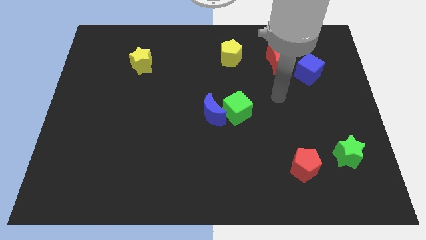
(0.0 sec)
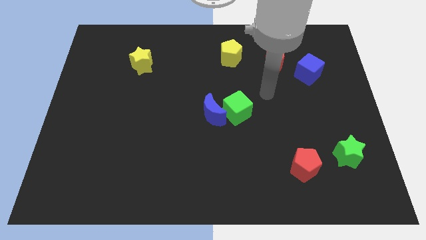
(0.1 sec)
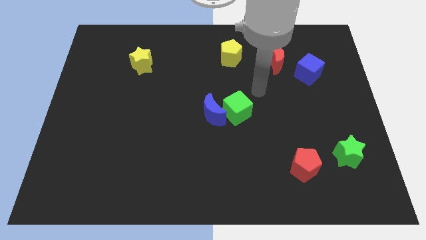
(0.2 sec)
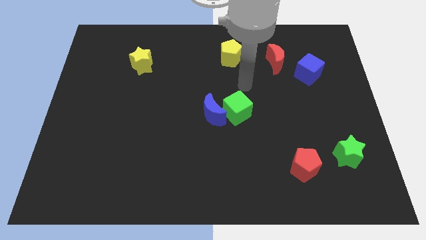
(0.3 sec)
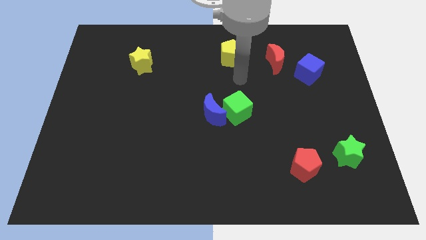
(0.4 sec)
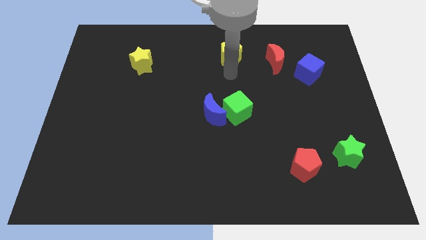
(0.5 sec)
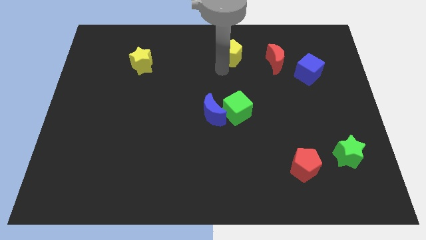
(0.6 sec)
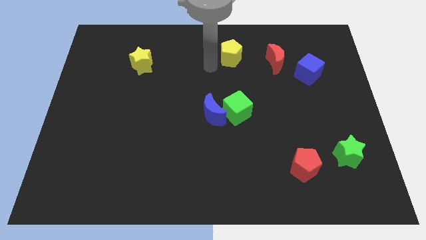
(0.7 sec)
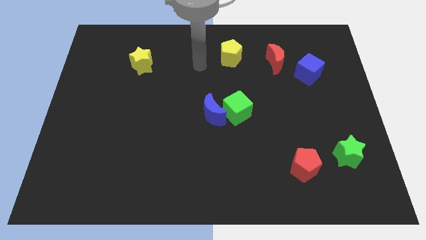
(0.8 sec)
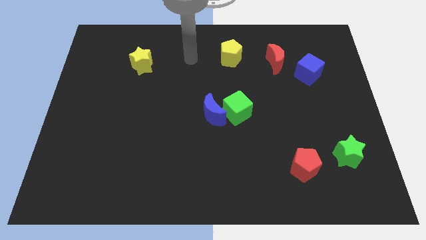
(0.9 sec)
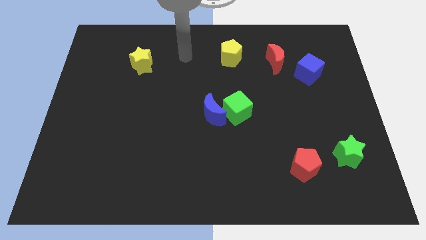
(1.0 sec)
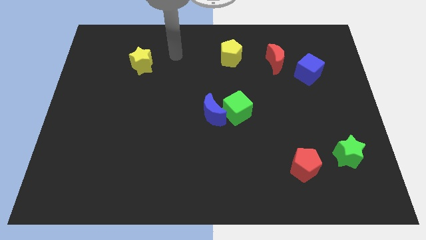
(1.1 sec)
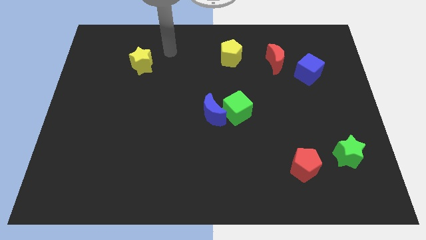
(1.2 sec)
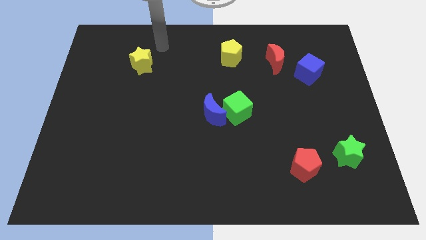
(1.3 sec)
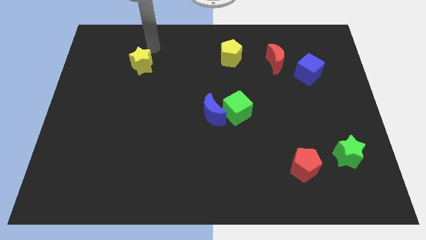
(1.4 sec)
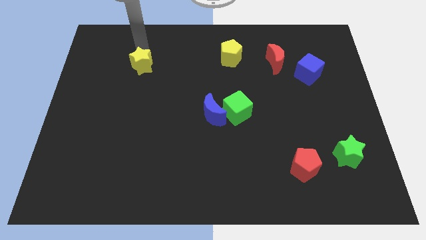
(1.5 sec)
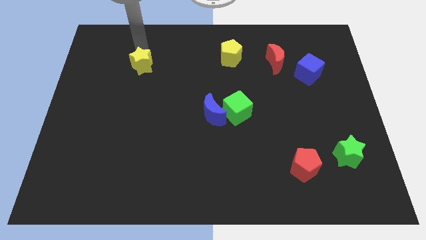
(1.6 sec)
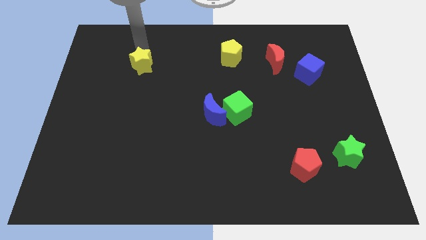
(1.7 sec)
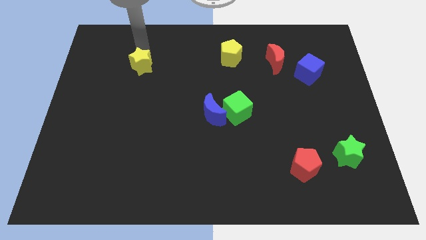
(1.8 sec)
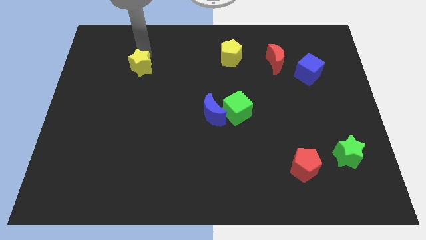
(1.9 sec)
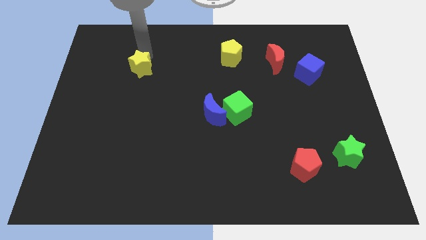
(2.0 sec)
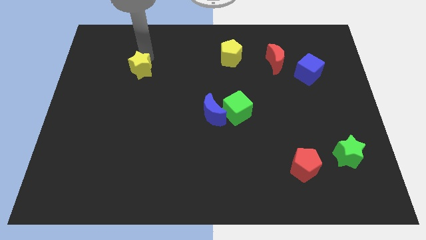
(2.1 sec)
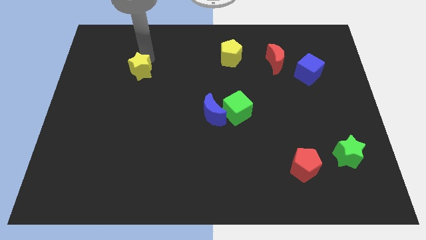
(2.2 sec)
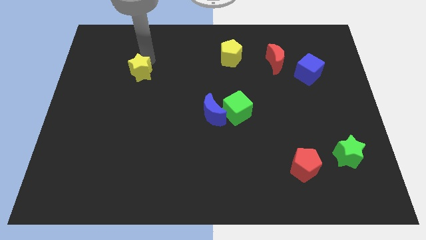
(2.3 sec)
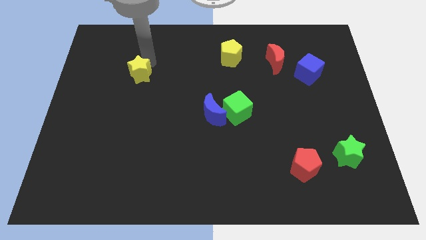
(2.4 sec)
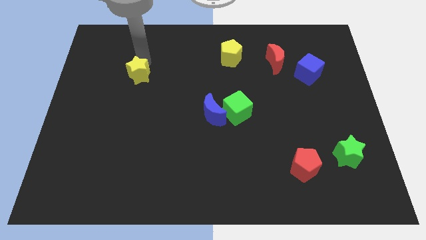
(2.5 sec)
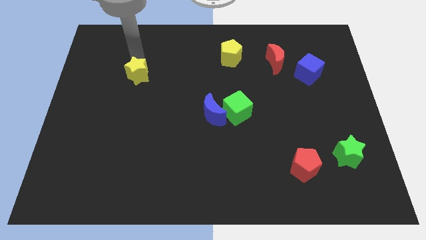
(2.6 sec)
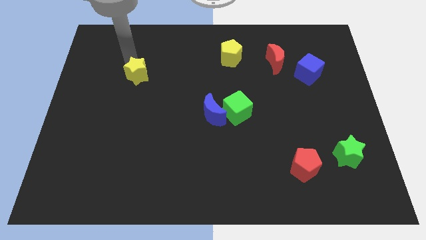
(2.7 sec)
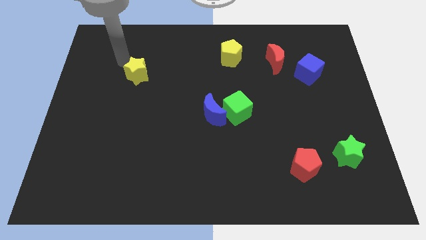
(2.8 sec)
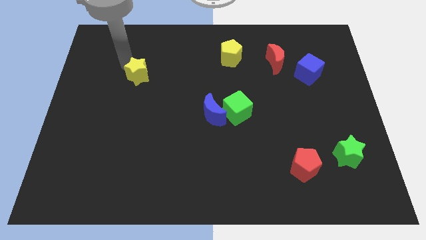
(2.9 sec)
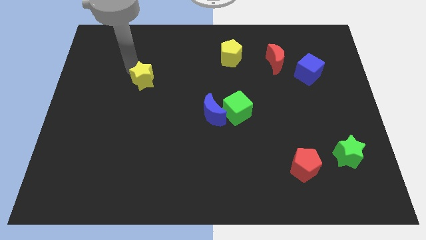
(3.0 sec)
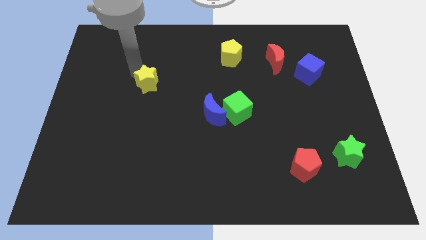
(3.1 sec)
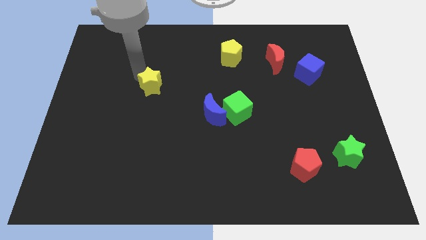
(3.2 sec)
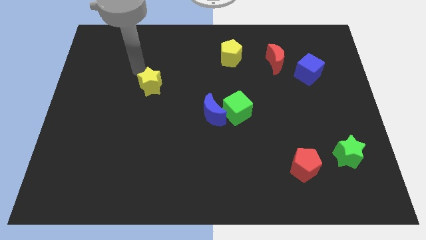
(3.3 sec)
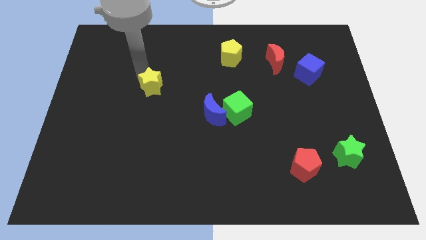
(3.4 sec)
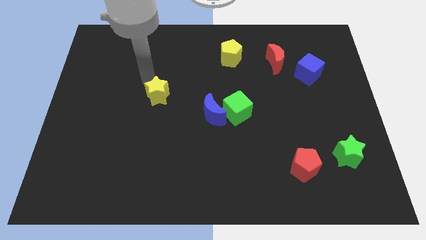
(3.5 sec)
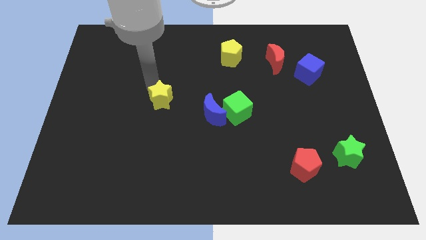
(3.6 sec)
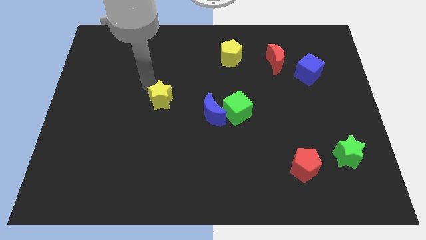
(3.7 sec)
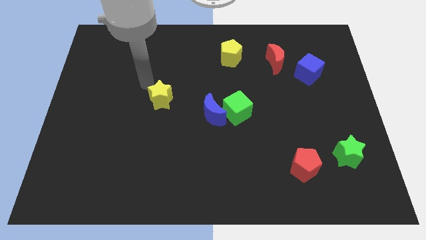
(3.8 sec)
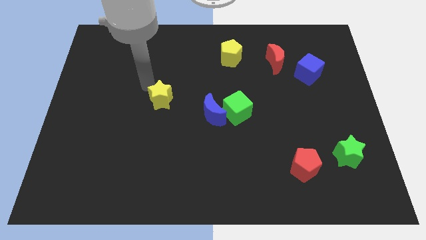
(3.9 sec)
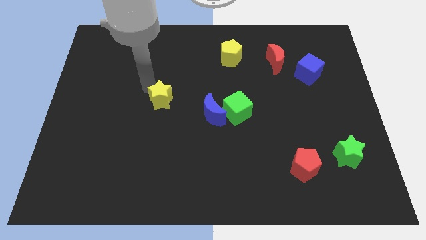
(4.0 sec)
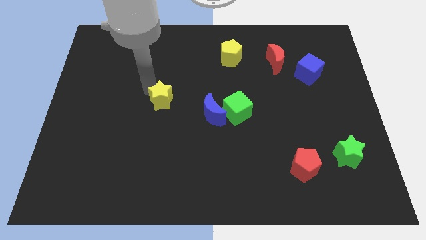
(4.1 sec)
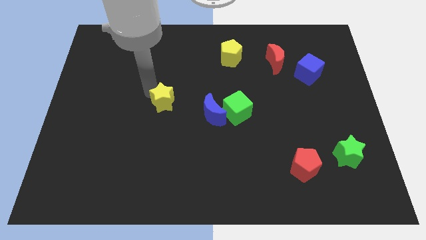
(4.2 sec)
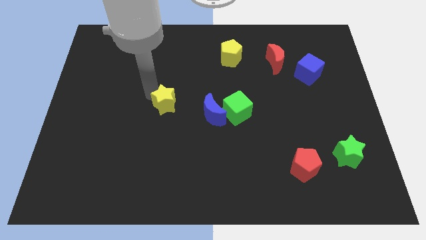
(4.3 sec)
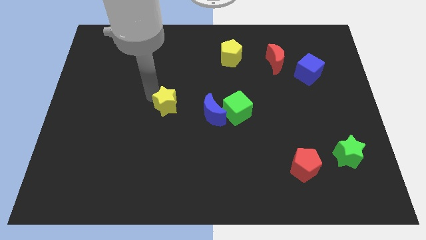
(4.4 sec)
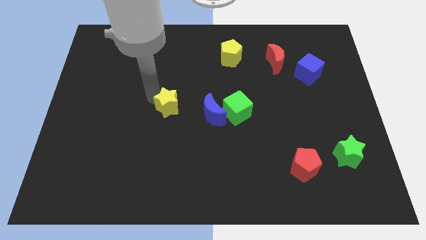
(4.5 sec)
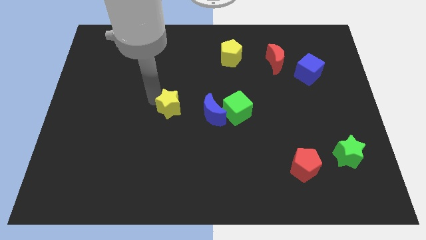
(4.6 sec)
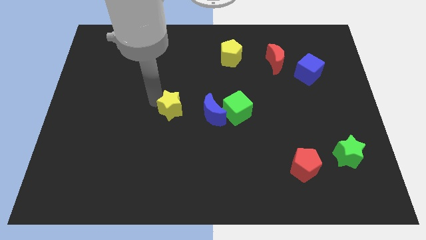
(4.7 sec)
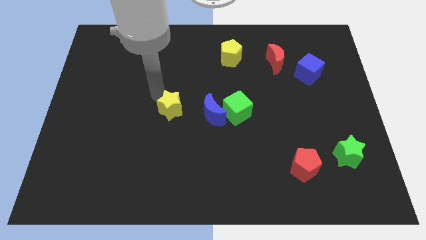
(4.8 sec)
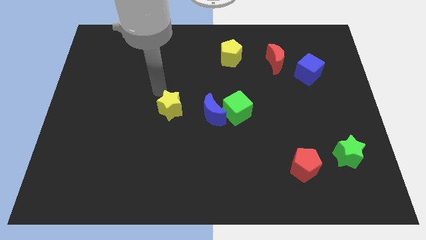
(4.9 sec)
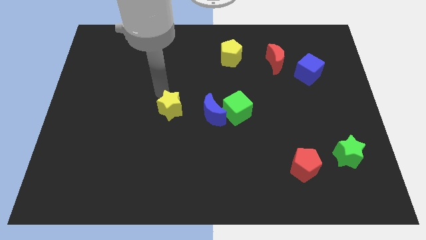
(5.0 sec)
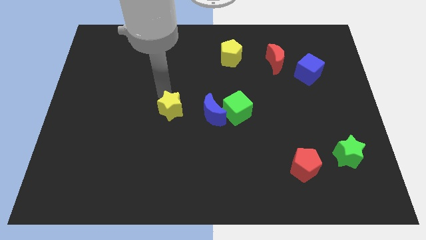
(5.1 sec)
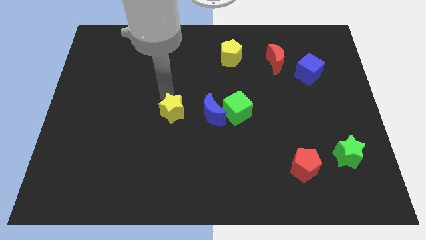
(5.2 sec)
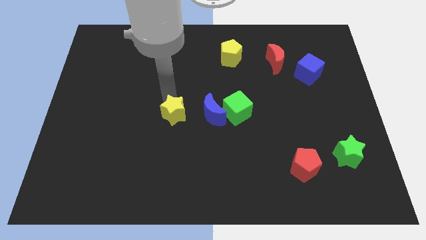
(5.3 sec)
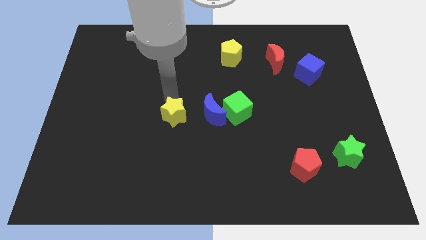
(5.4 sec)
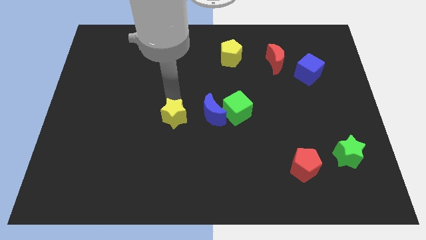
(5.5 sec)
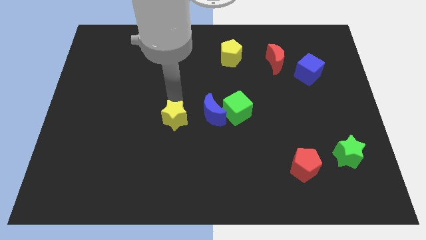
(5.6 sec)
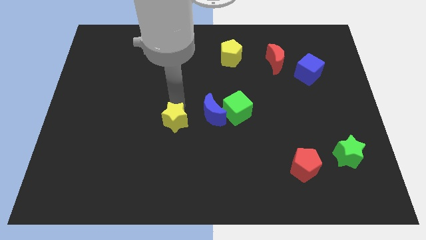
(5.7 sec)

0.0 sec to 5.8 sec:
move the yellow star to the bottom left side of the blue moon

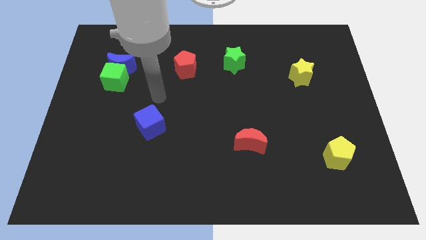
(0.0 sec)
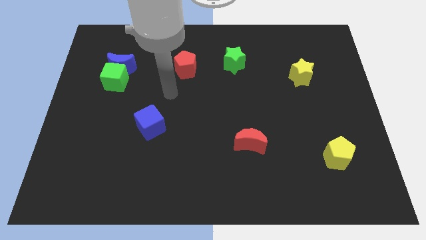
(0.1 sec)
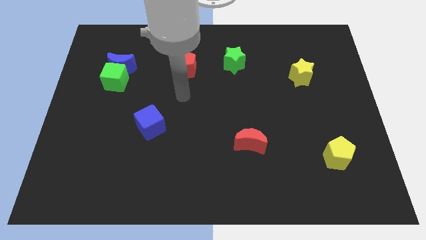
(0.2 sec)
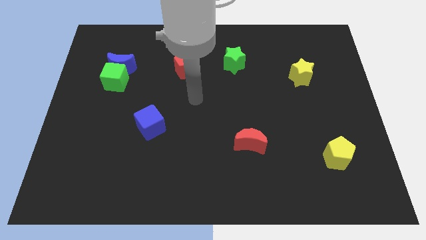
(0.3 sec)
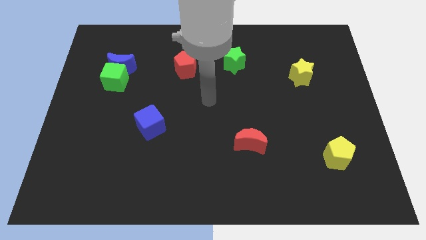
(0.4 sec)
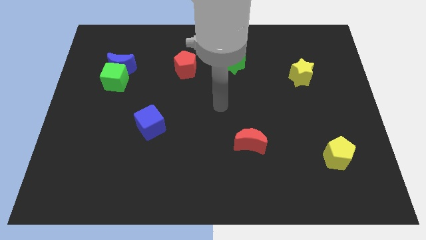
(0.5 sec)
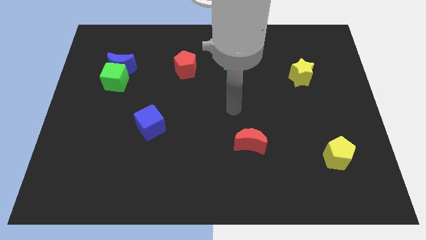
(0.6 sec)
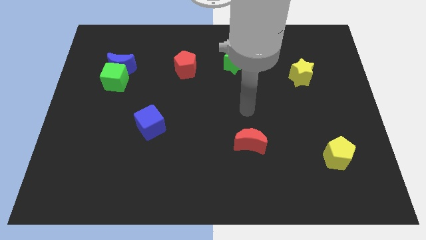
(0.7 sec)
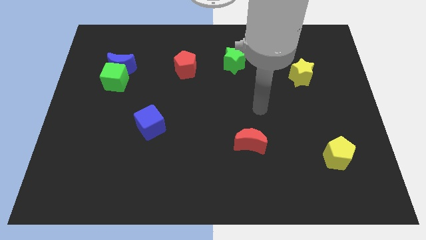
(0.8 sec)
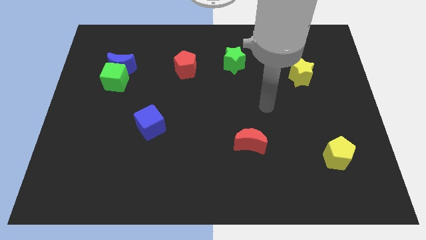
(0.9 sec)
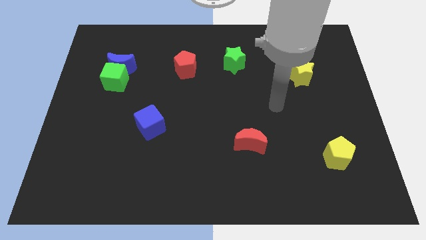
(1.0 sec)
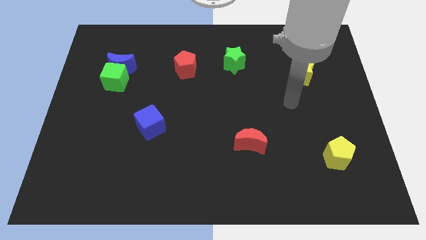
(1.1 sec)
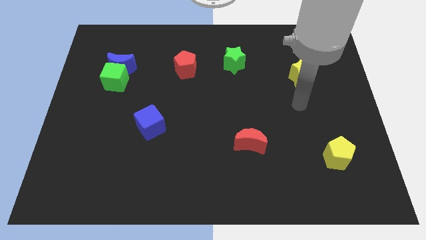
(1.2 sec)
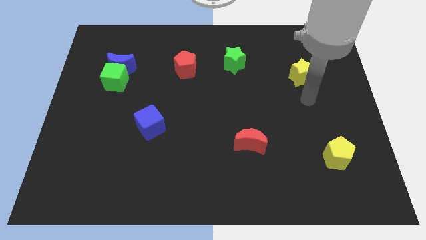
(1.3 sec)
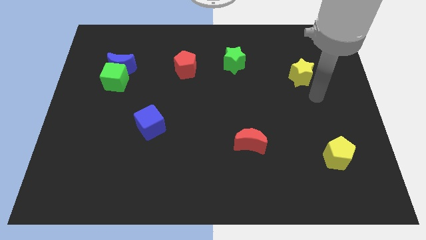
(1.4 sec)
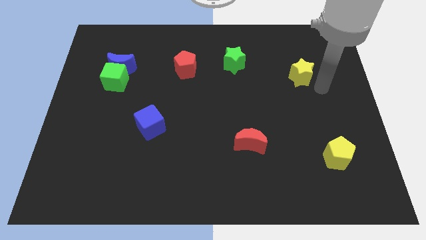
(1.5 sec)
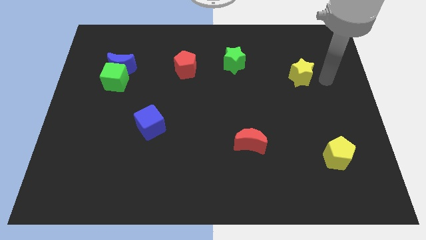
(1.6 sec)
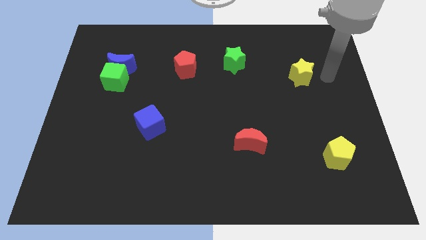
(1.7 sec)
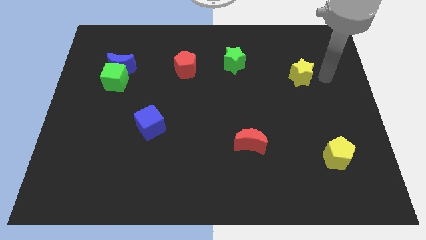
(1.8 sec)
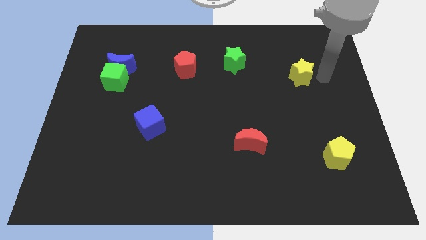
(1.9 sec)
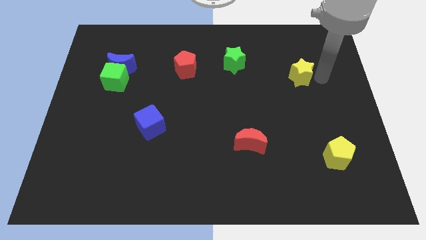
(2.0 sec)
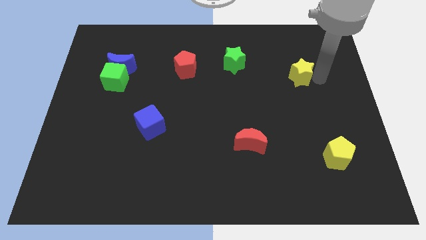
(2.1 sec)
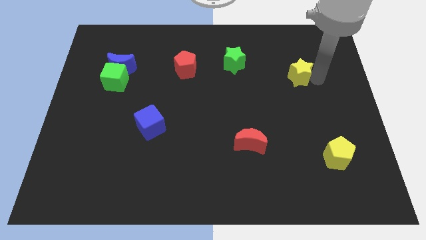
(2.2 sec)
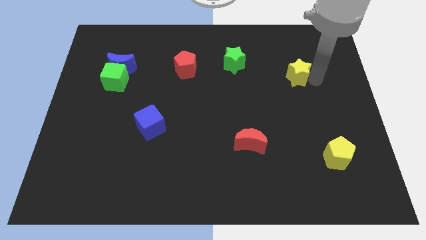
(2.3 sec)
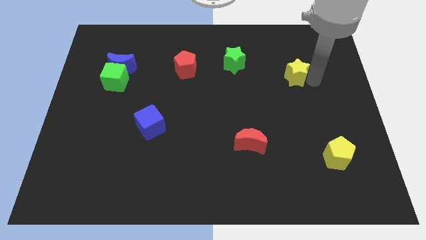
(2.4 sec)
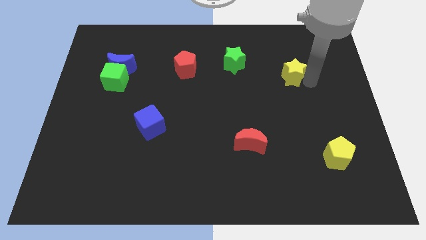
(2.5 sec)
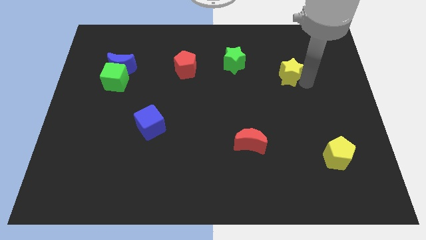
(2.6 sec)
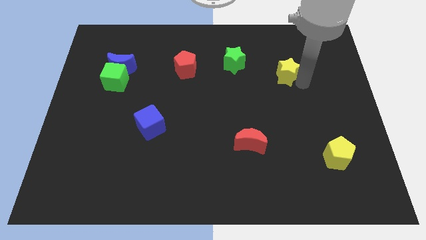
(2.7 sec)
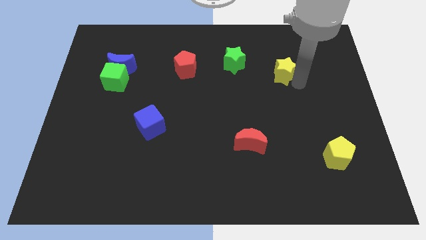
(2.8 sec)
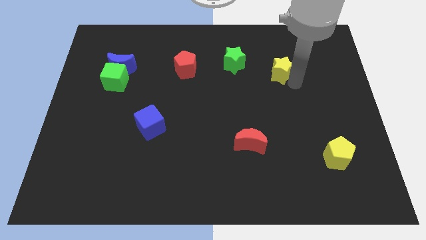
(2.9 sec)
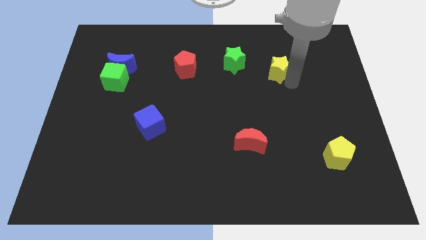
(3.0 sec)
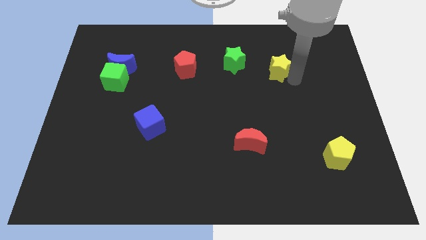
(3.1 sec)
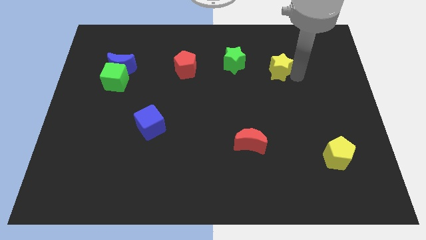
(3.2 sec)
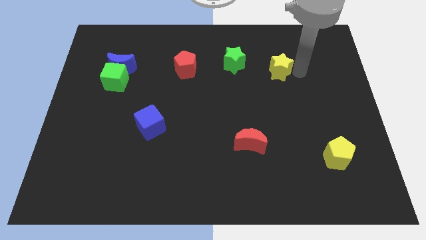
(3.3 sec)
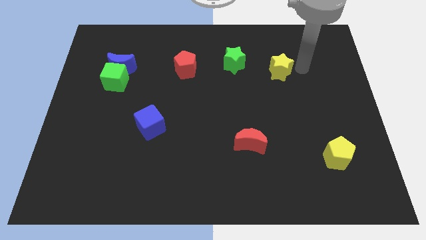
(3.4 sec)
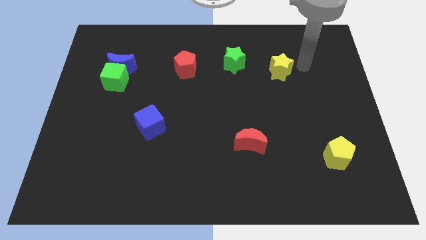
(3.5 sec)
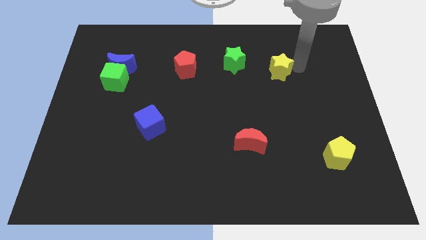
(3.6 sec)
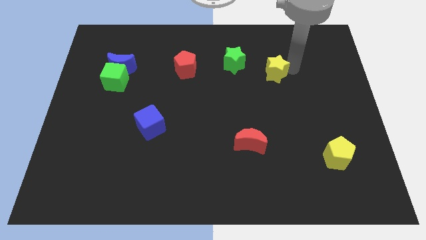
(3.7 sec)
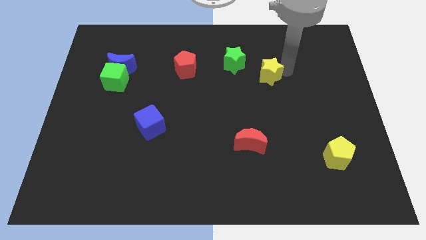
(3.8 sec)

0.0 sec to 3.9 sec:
slide the yellow star to the bottom right of the green star
